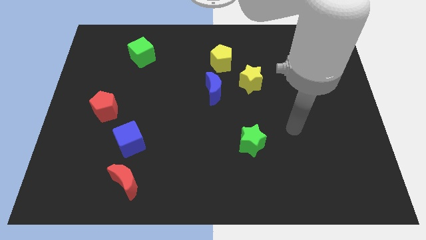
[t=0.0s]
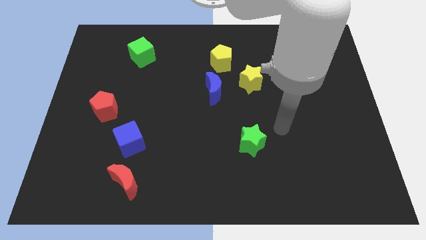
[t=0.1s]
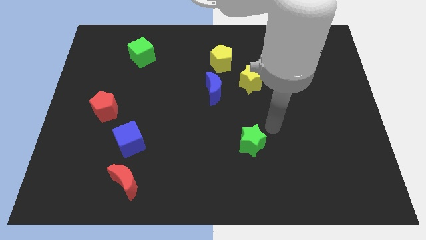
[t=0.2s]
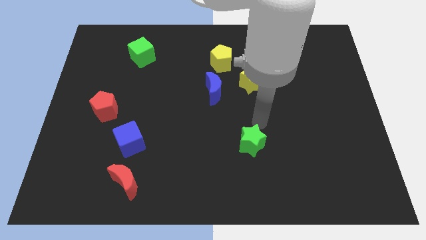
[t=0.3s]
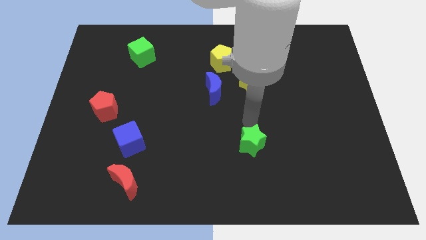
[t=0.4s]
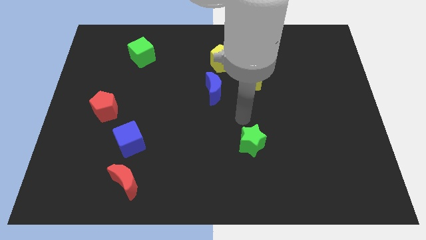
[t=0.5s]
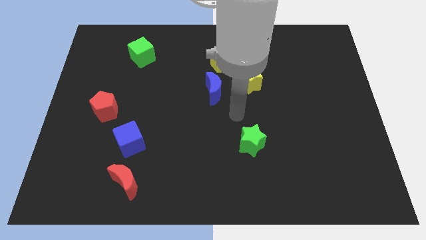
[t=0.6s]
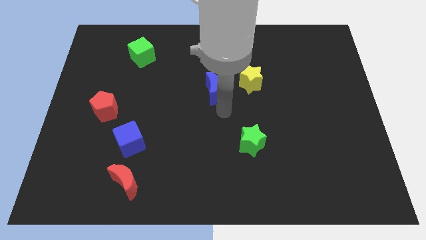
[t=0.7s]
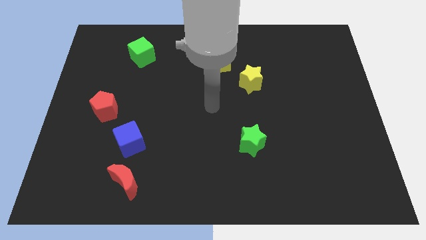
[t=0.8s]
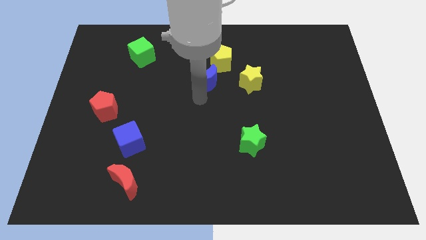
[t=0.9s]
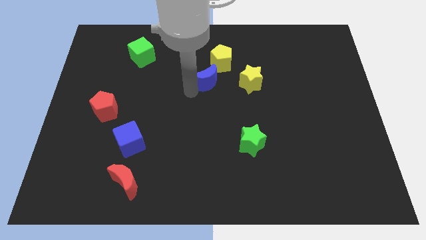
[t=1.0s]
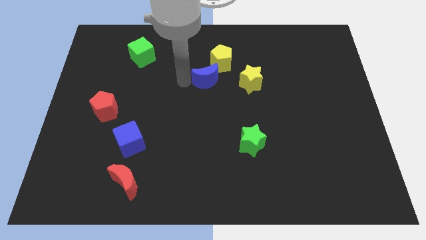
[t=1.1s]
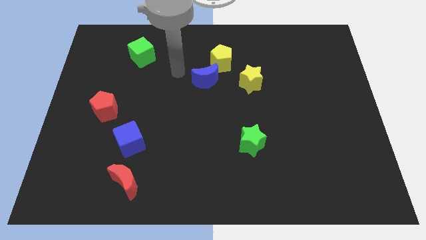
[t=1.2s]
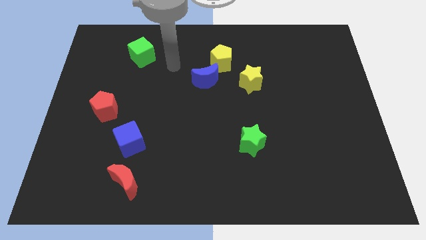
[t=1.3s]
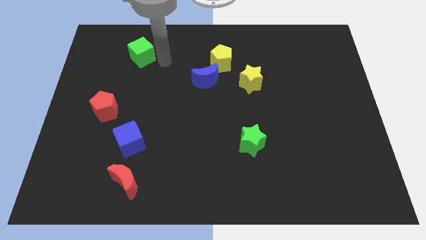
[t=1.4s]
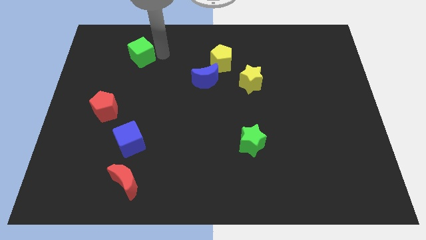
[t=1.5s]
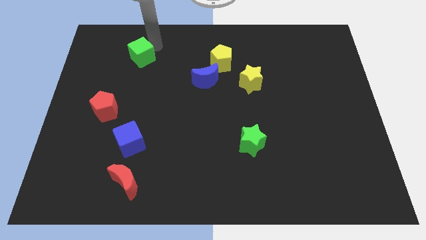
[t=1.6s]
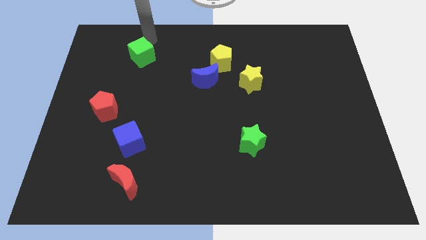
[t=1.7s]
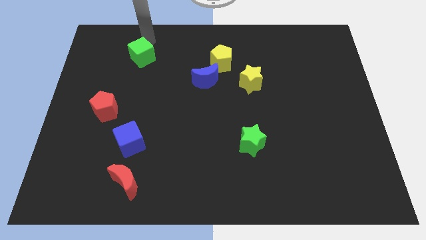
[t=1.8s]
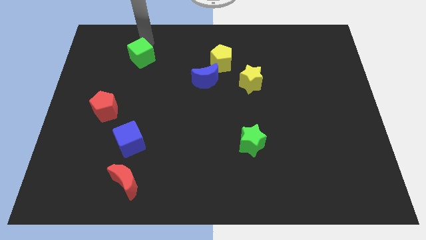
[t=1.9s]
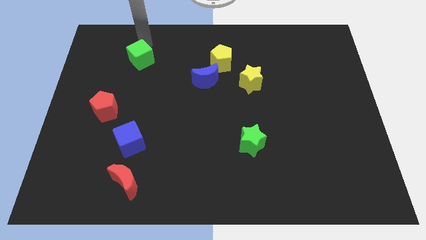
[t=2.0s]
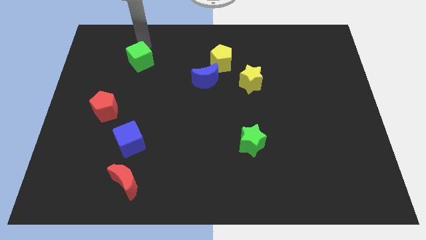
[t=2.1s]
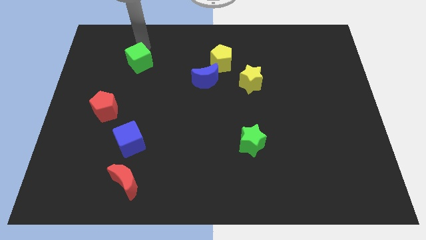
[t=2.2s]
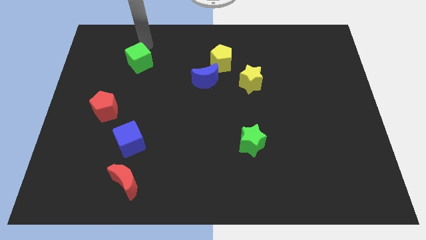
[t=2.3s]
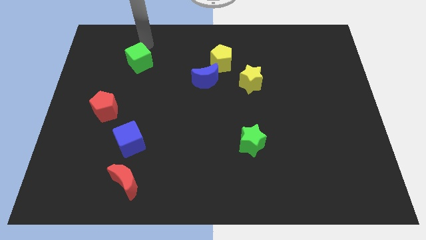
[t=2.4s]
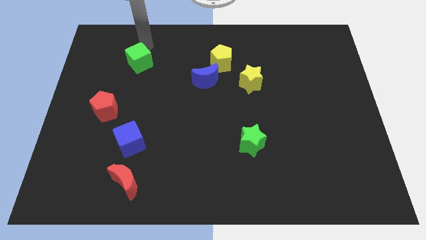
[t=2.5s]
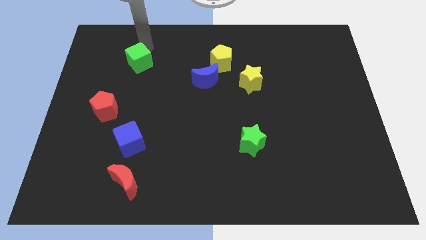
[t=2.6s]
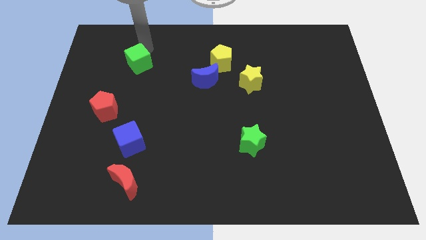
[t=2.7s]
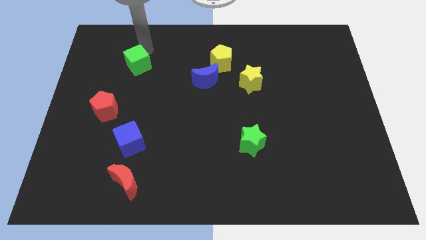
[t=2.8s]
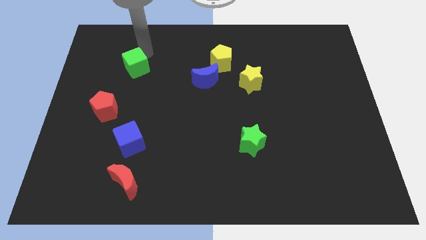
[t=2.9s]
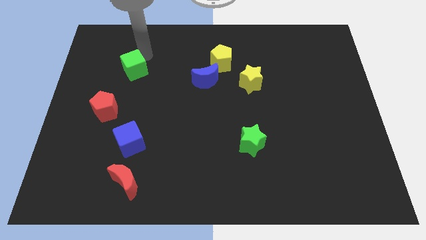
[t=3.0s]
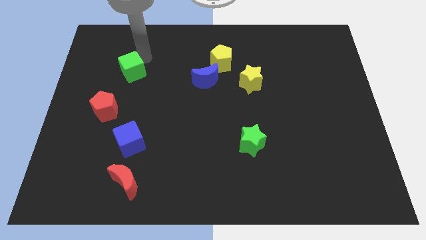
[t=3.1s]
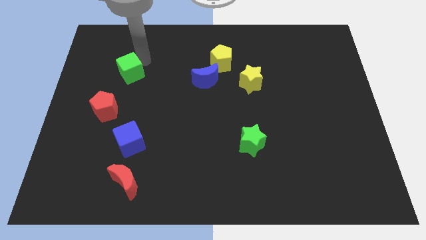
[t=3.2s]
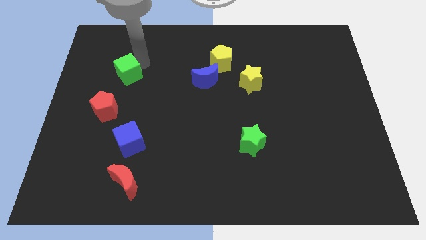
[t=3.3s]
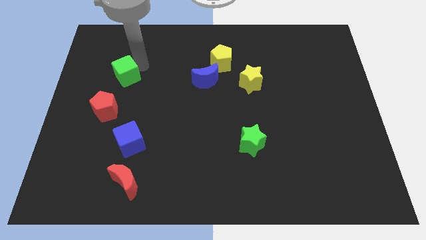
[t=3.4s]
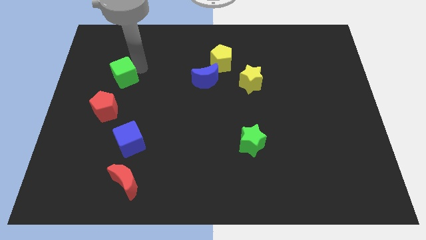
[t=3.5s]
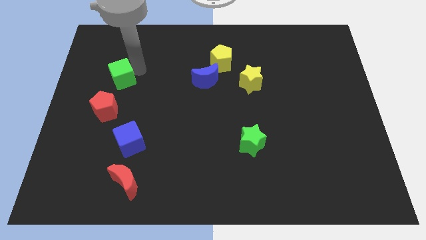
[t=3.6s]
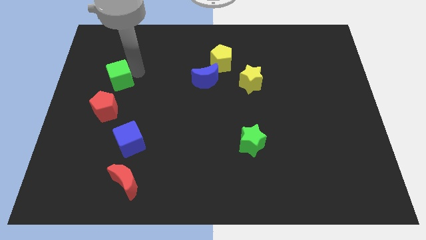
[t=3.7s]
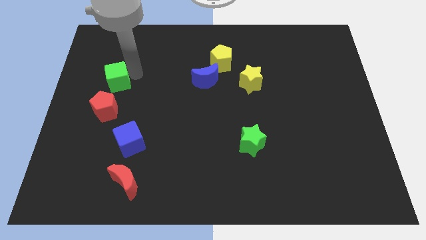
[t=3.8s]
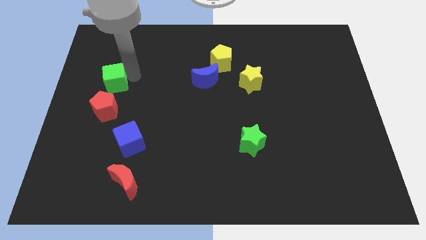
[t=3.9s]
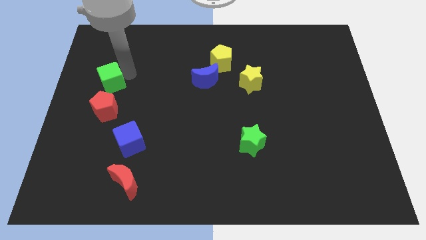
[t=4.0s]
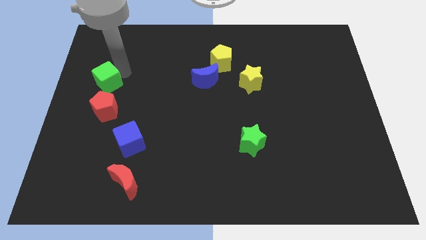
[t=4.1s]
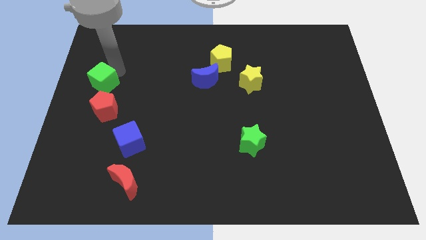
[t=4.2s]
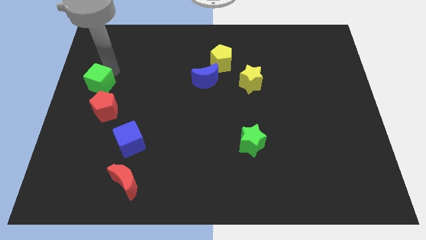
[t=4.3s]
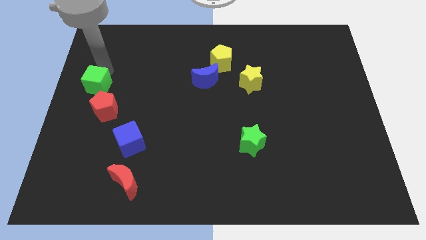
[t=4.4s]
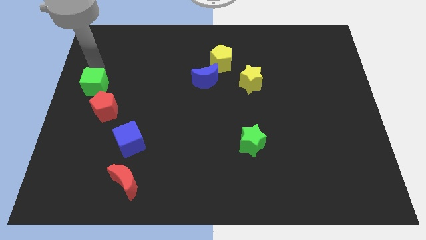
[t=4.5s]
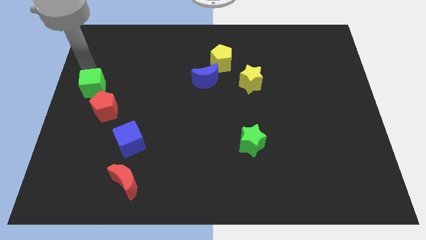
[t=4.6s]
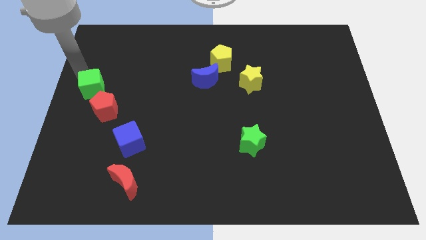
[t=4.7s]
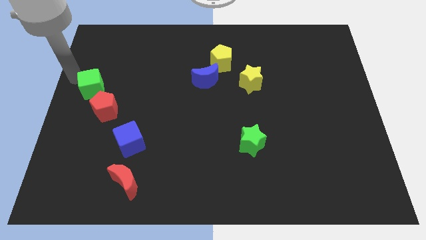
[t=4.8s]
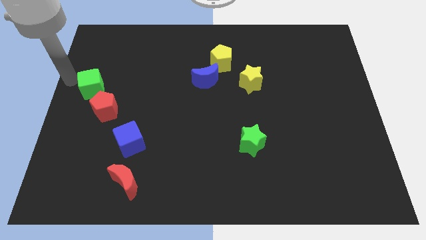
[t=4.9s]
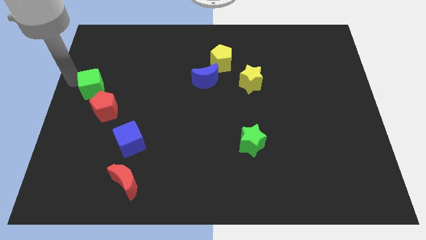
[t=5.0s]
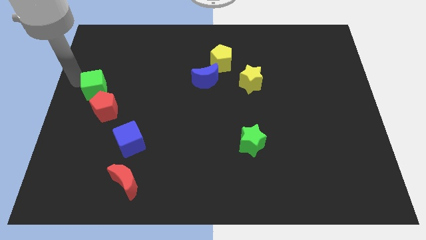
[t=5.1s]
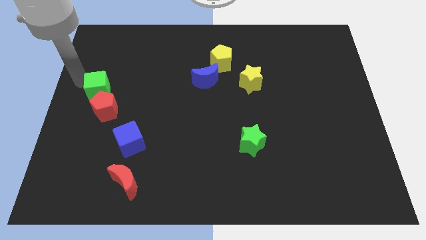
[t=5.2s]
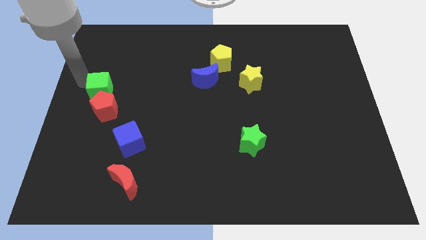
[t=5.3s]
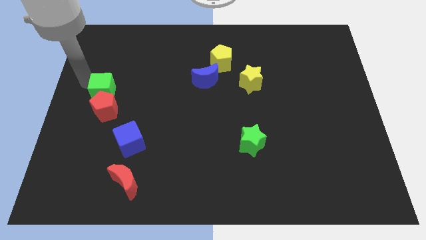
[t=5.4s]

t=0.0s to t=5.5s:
put the green cube towards the red pentagon

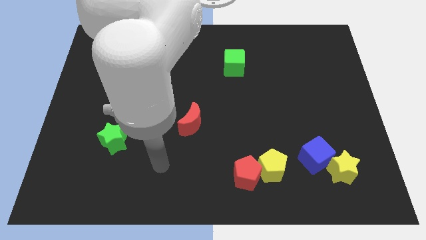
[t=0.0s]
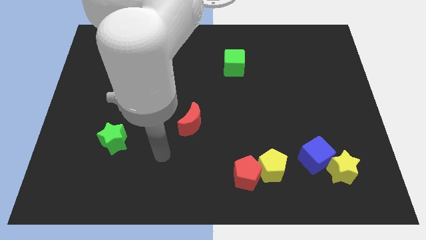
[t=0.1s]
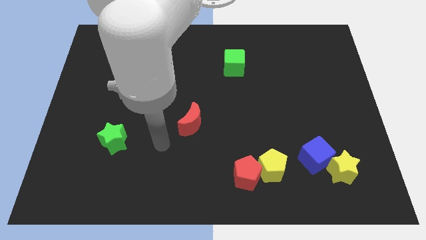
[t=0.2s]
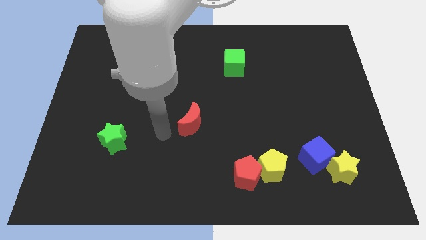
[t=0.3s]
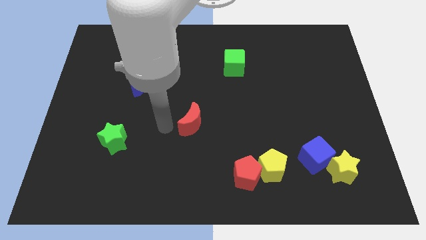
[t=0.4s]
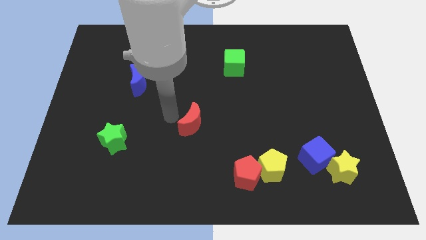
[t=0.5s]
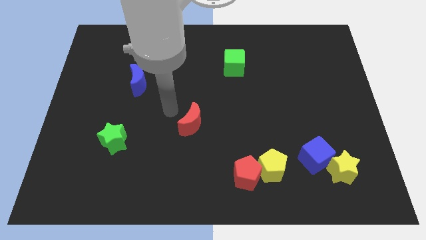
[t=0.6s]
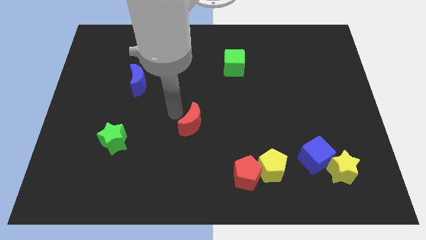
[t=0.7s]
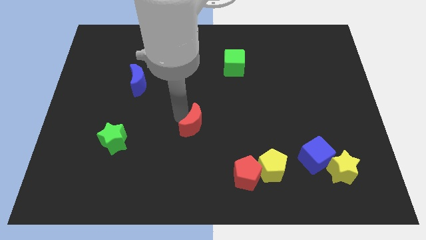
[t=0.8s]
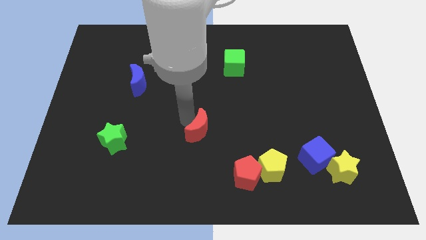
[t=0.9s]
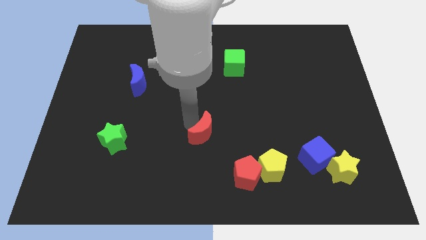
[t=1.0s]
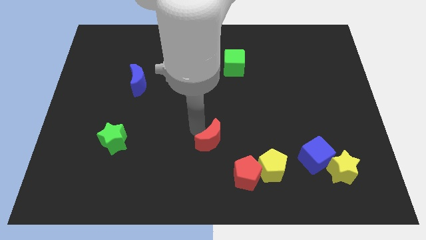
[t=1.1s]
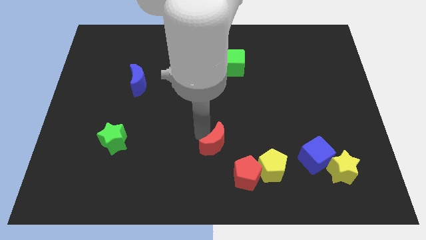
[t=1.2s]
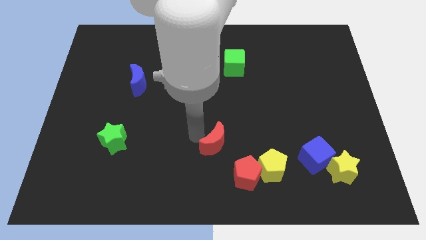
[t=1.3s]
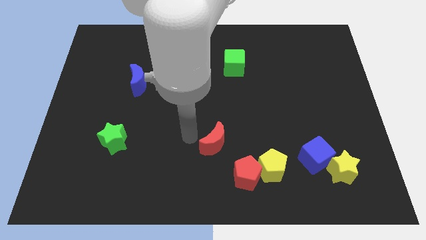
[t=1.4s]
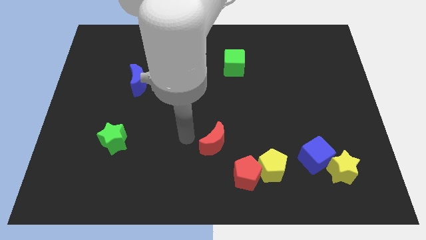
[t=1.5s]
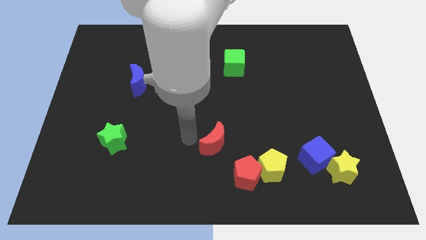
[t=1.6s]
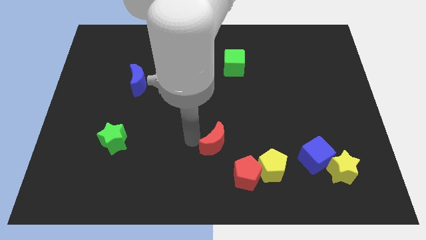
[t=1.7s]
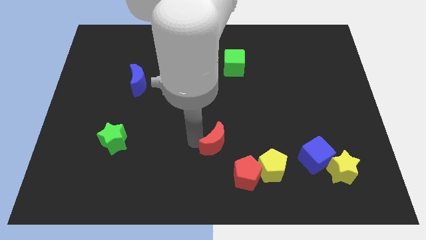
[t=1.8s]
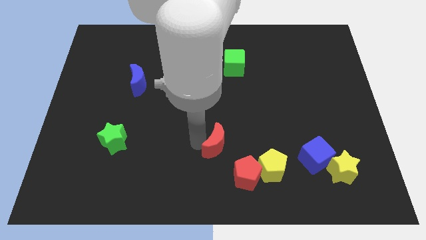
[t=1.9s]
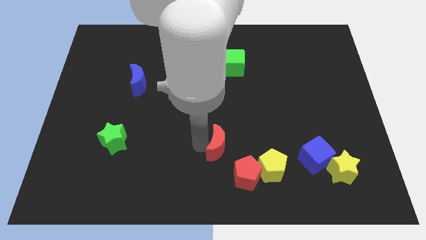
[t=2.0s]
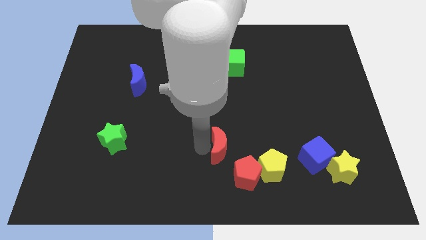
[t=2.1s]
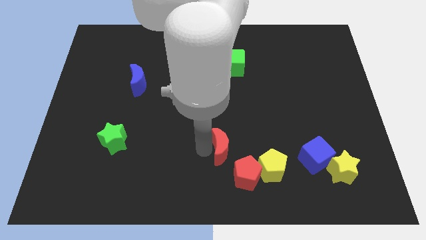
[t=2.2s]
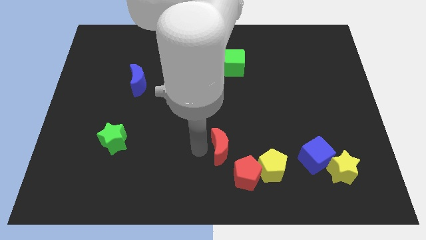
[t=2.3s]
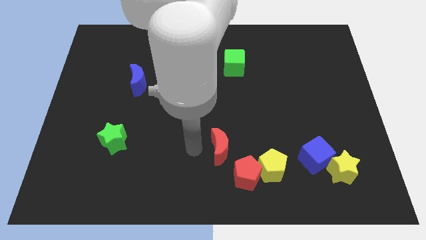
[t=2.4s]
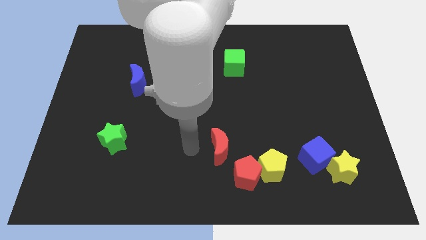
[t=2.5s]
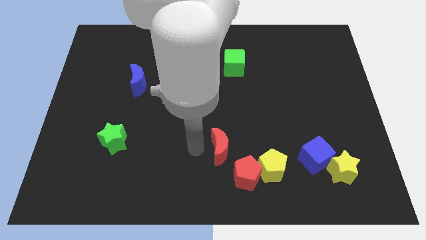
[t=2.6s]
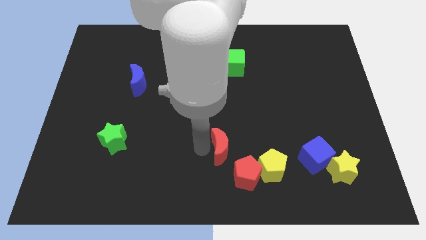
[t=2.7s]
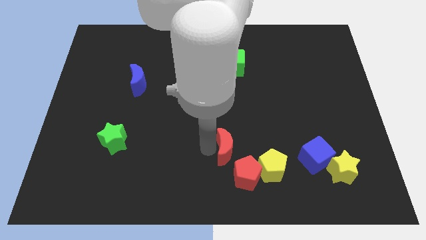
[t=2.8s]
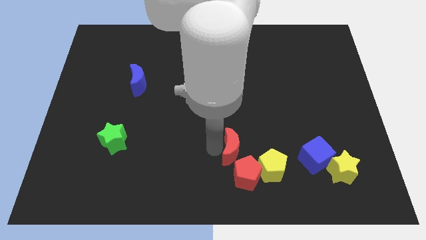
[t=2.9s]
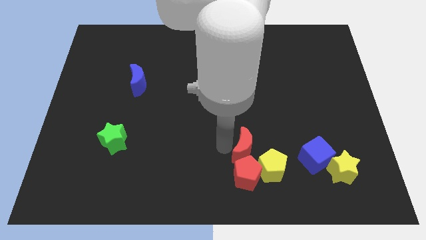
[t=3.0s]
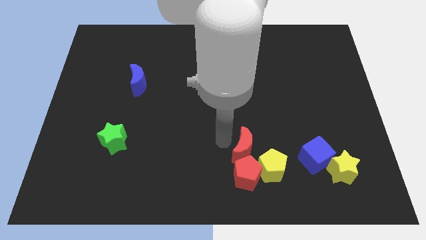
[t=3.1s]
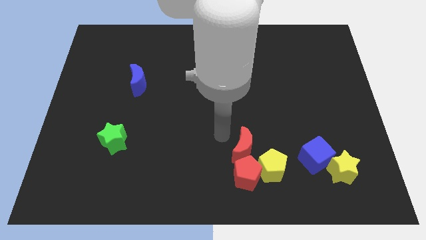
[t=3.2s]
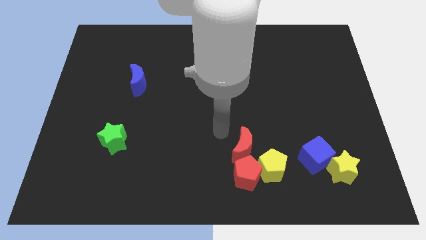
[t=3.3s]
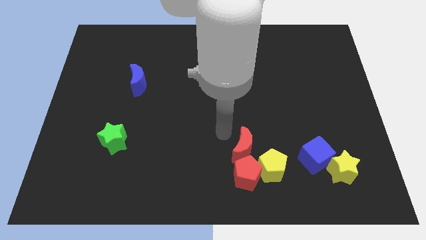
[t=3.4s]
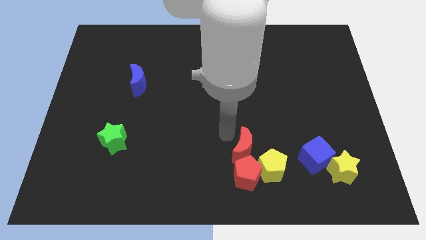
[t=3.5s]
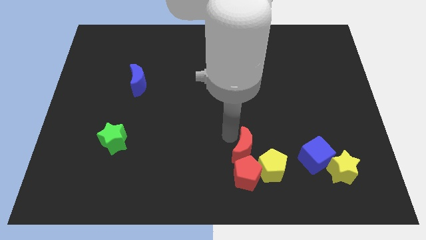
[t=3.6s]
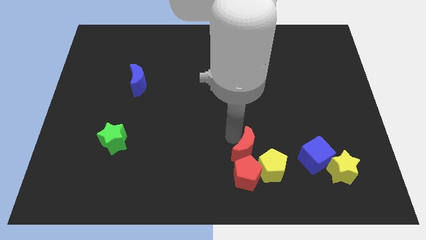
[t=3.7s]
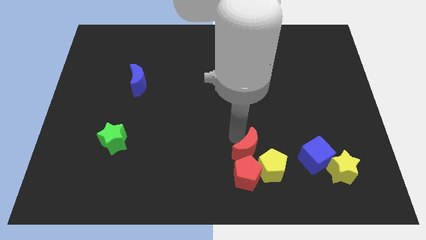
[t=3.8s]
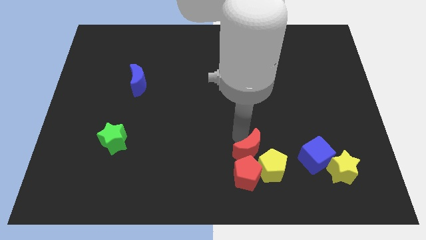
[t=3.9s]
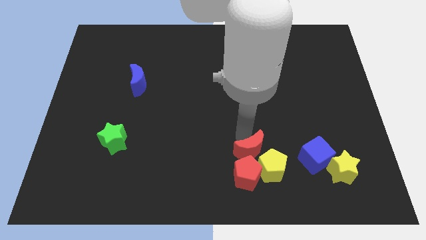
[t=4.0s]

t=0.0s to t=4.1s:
move the red moon towards the yellow pentagon
